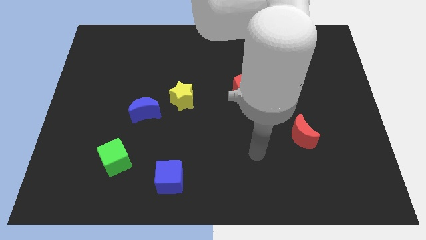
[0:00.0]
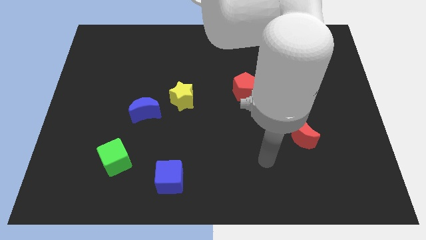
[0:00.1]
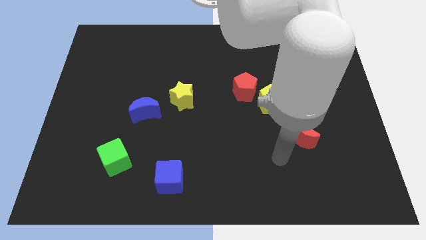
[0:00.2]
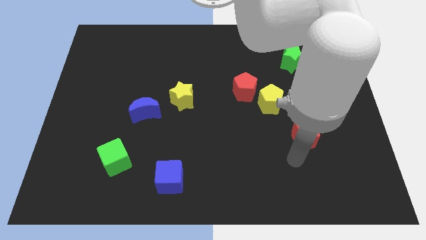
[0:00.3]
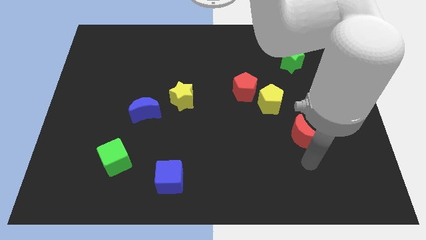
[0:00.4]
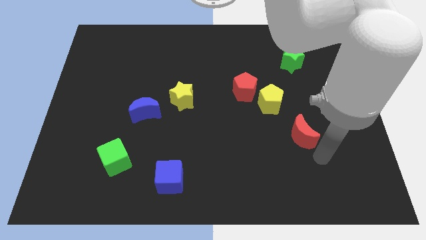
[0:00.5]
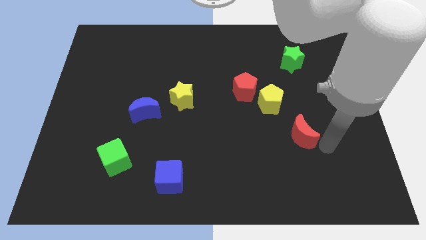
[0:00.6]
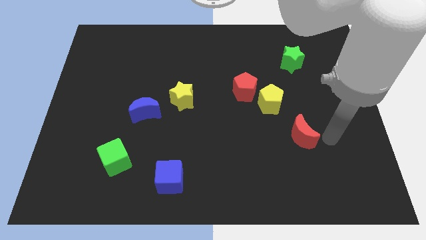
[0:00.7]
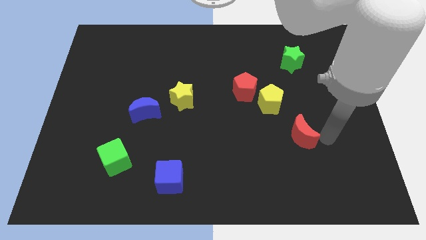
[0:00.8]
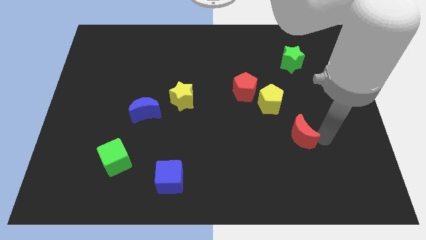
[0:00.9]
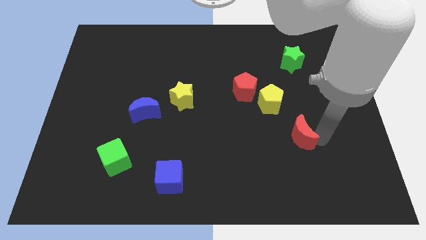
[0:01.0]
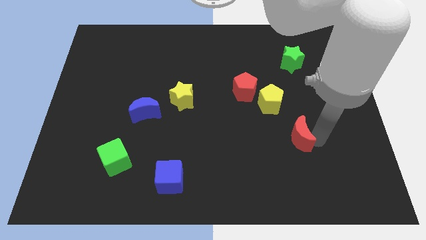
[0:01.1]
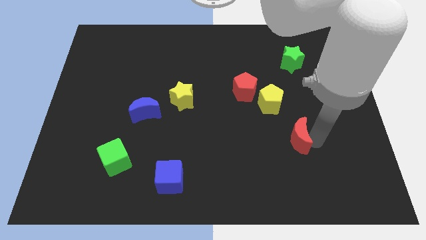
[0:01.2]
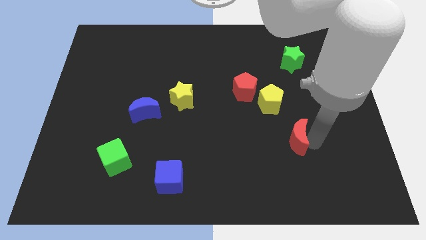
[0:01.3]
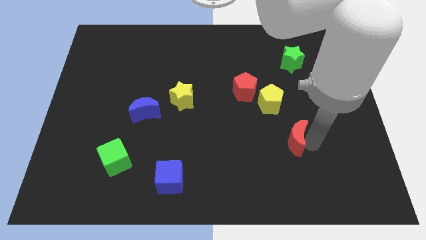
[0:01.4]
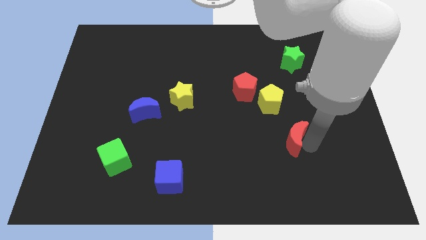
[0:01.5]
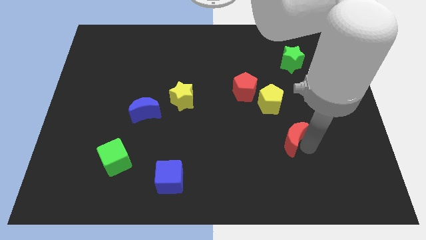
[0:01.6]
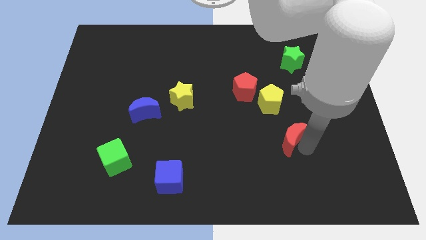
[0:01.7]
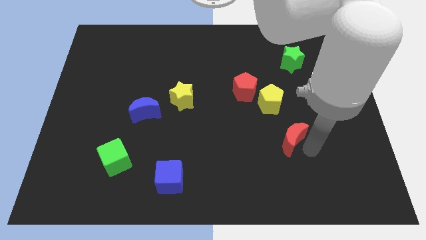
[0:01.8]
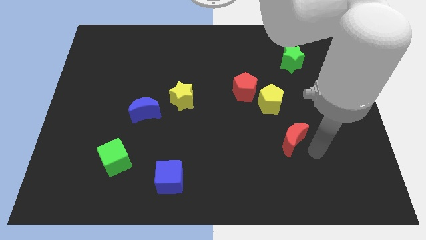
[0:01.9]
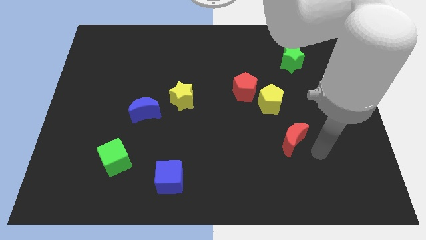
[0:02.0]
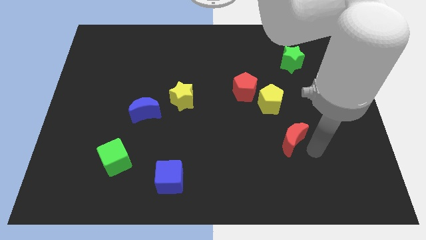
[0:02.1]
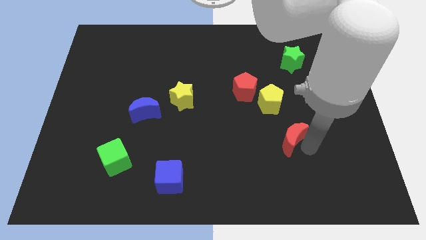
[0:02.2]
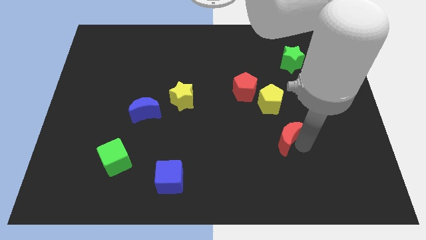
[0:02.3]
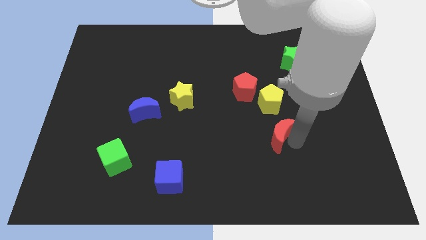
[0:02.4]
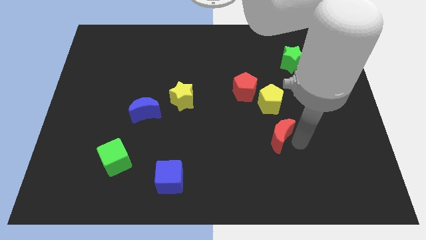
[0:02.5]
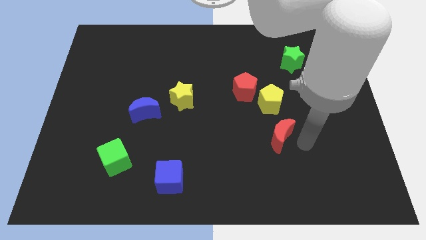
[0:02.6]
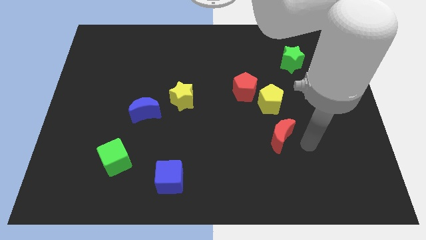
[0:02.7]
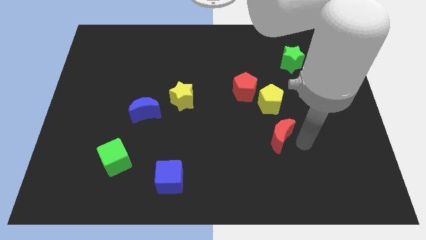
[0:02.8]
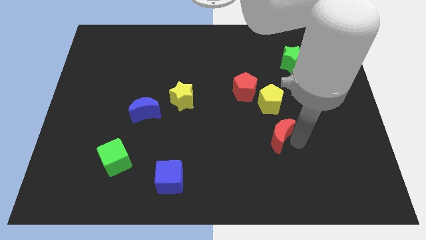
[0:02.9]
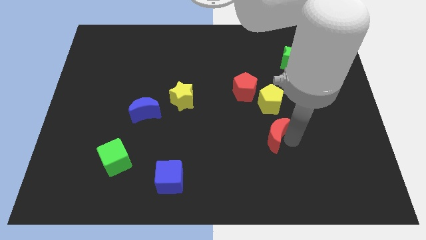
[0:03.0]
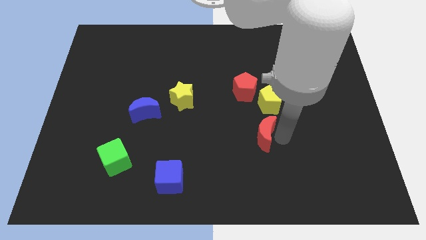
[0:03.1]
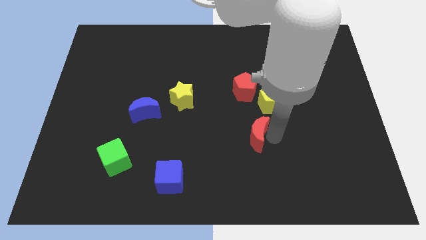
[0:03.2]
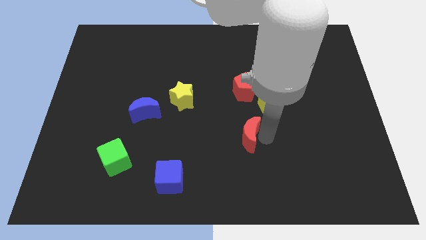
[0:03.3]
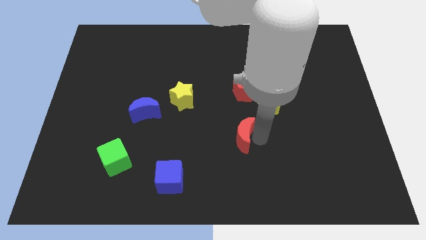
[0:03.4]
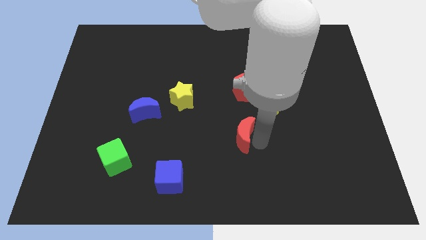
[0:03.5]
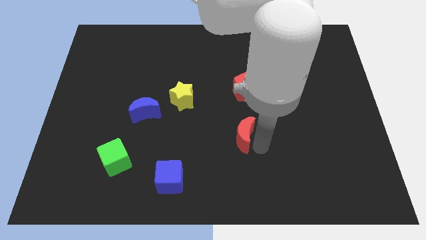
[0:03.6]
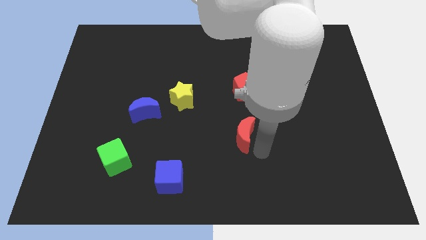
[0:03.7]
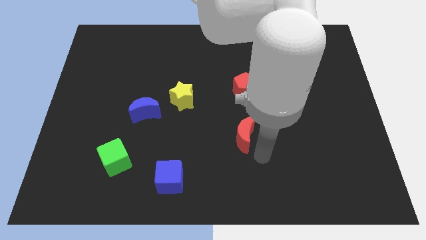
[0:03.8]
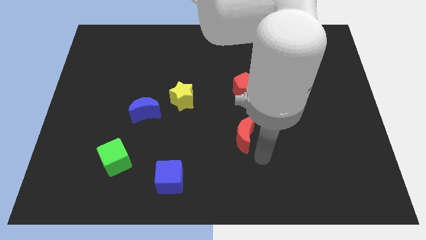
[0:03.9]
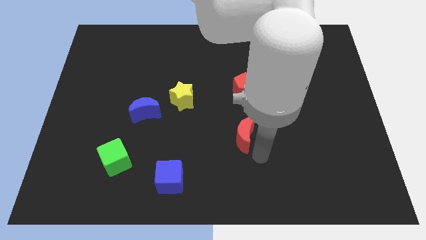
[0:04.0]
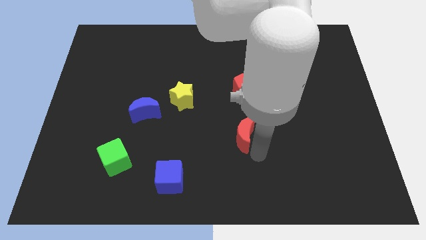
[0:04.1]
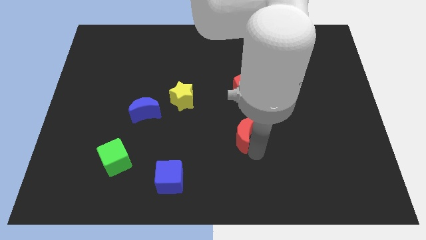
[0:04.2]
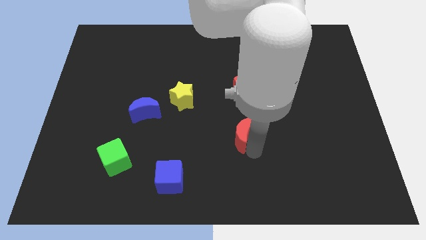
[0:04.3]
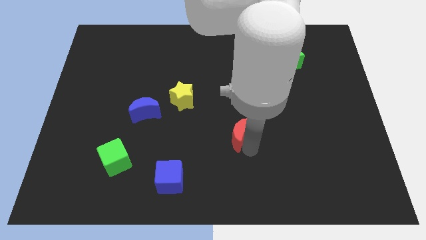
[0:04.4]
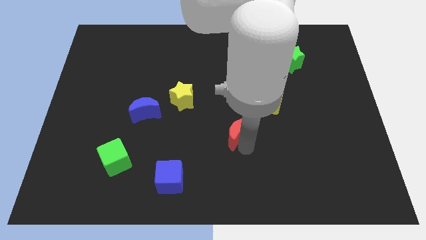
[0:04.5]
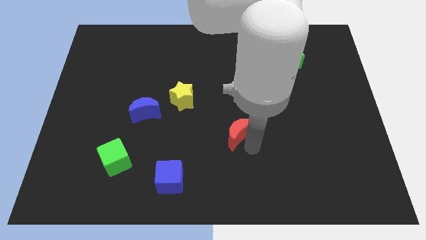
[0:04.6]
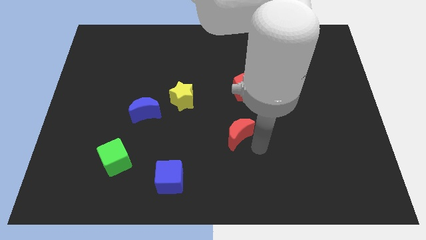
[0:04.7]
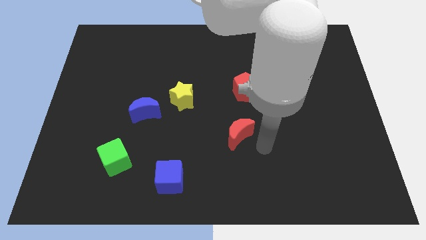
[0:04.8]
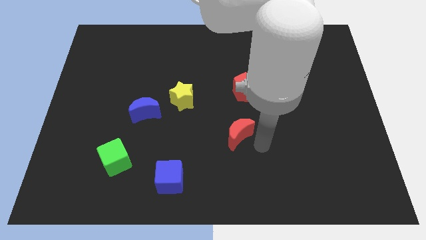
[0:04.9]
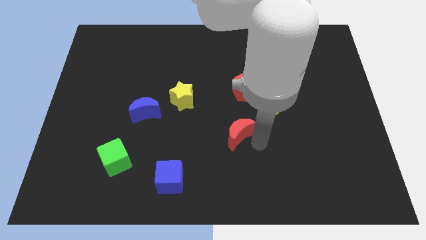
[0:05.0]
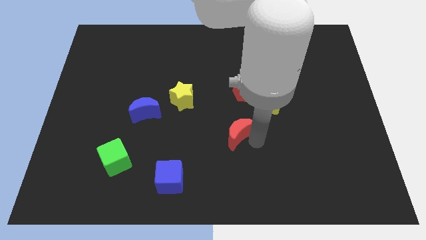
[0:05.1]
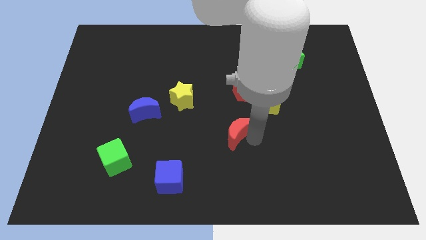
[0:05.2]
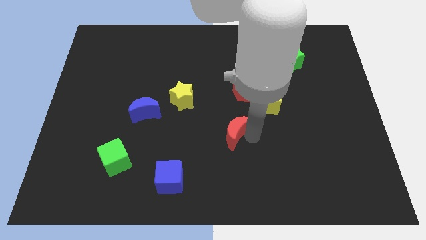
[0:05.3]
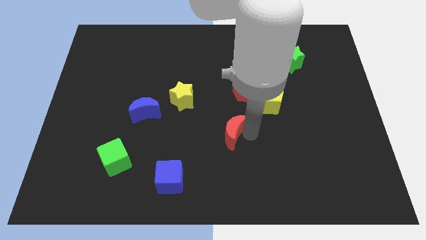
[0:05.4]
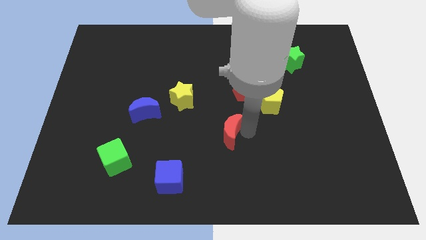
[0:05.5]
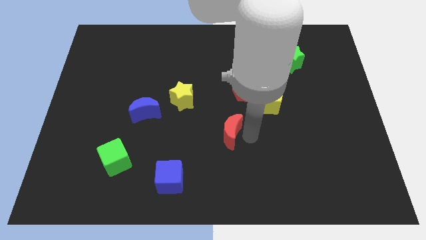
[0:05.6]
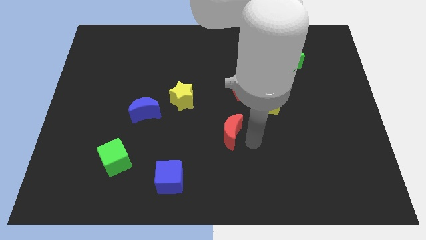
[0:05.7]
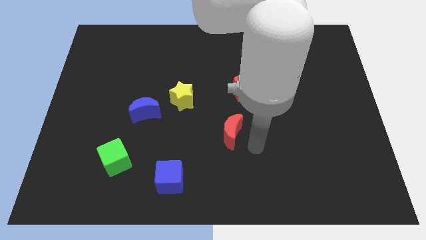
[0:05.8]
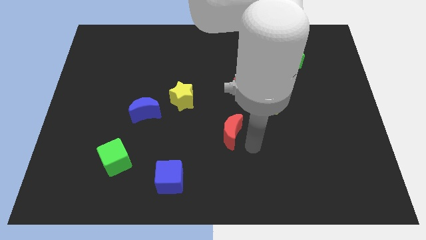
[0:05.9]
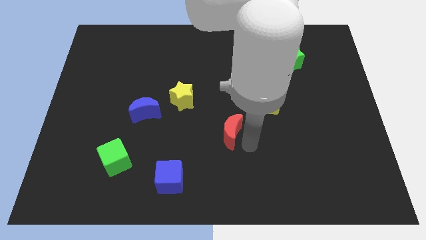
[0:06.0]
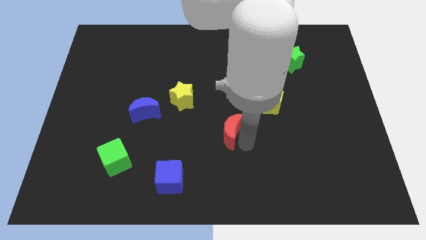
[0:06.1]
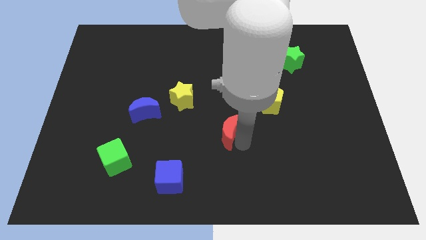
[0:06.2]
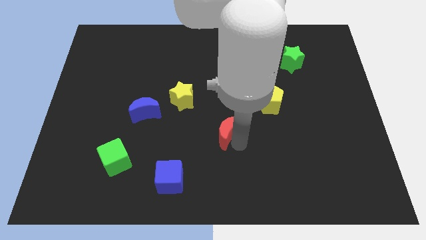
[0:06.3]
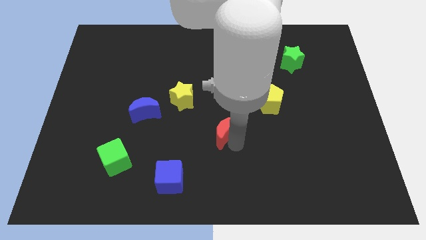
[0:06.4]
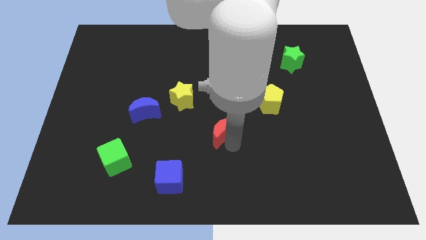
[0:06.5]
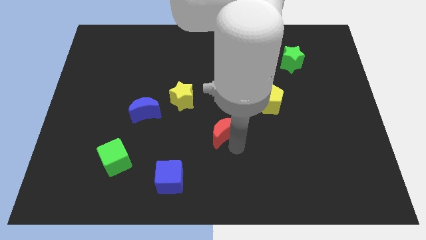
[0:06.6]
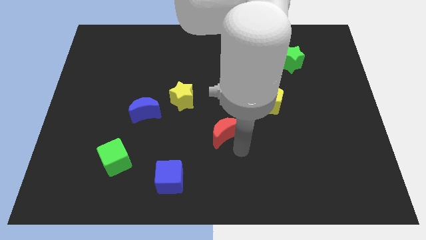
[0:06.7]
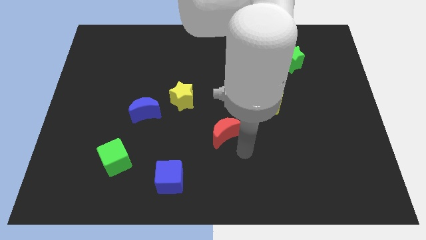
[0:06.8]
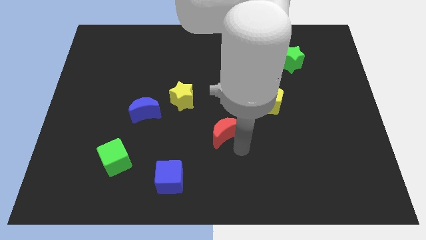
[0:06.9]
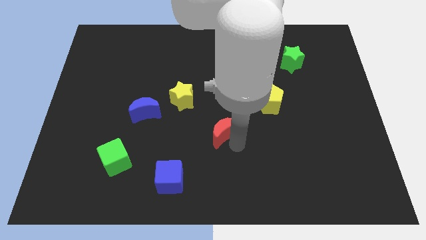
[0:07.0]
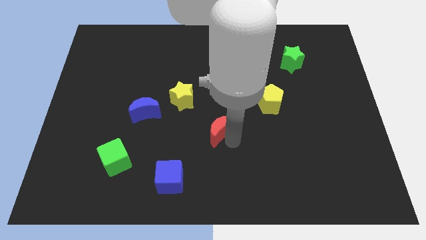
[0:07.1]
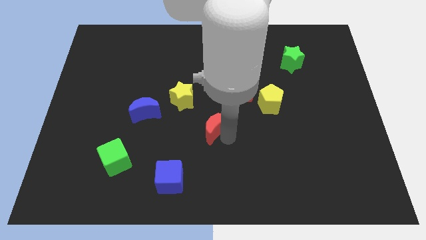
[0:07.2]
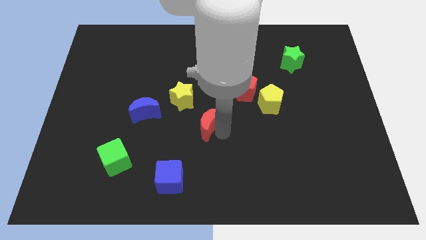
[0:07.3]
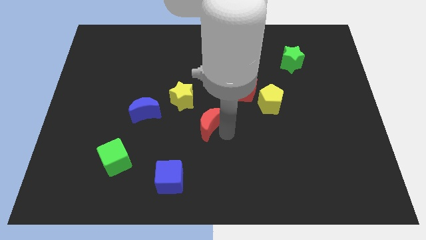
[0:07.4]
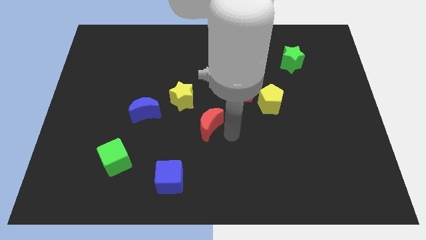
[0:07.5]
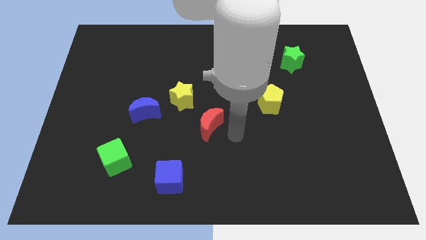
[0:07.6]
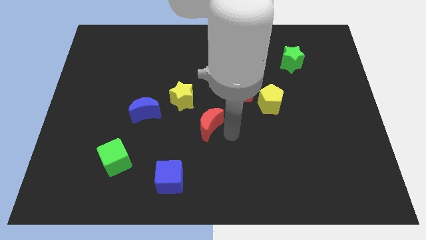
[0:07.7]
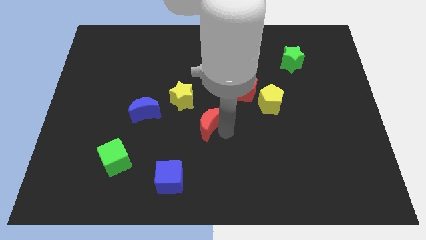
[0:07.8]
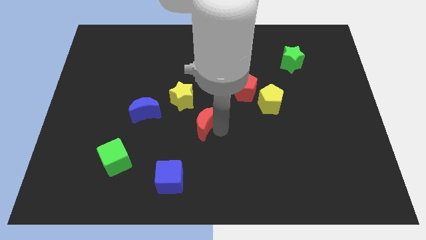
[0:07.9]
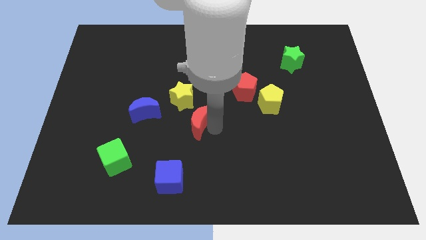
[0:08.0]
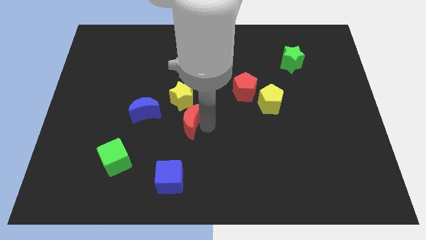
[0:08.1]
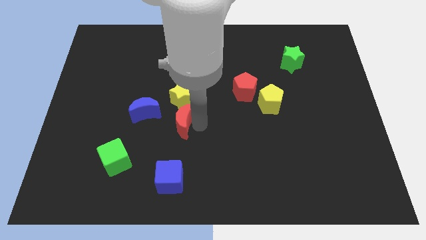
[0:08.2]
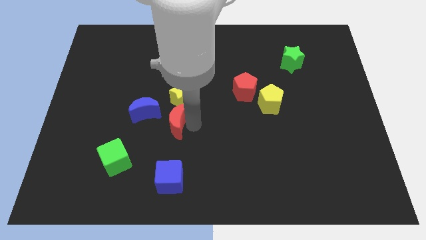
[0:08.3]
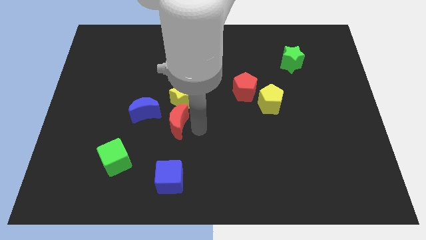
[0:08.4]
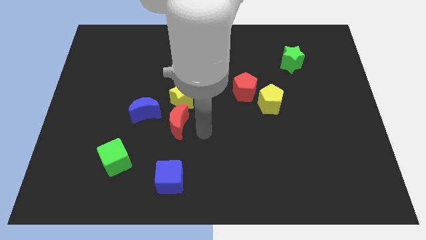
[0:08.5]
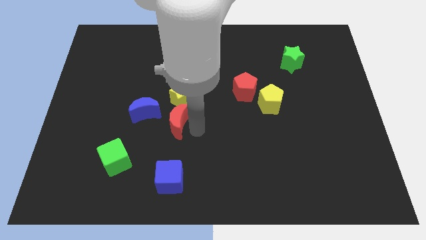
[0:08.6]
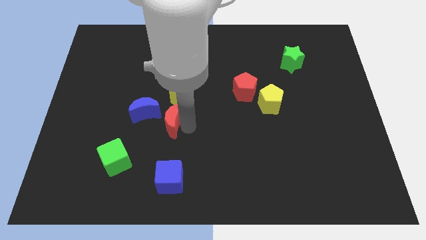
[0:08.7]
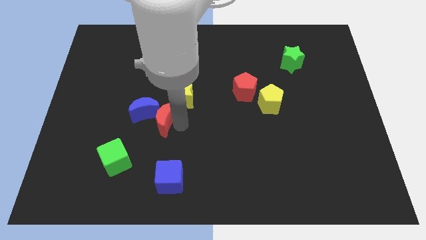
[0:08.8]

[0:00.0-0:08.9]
move the red moon towards the blue moon
